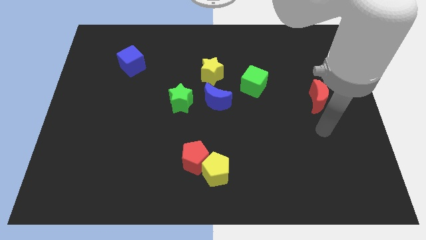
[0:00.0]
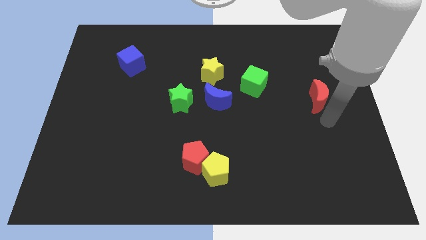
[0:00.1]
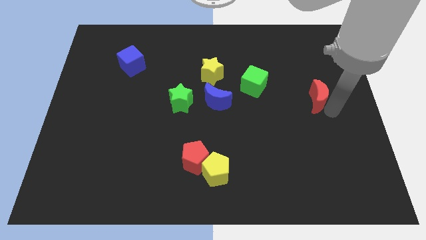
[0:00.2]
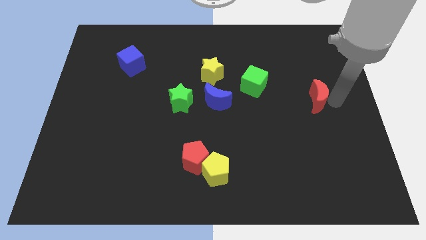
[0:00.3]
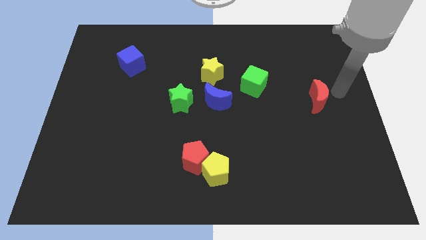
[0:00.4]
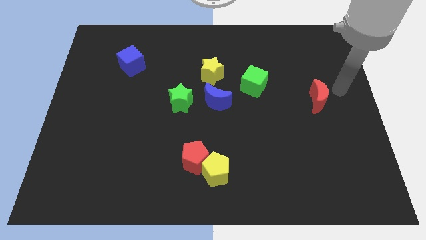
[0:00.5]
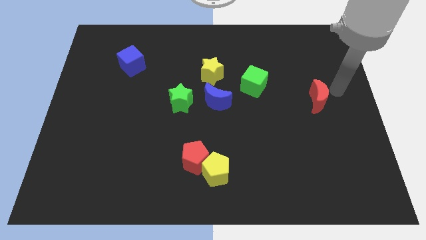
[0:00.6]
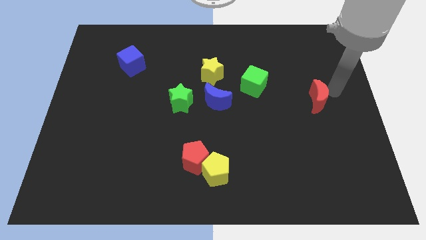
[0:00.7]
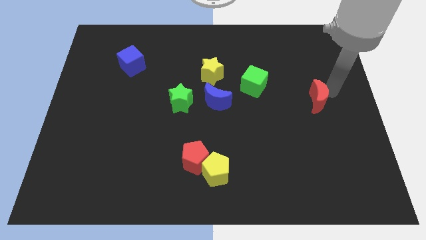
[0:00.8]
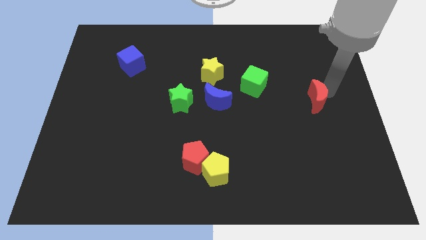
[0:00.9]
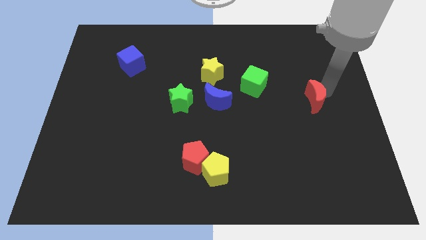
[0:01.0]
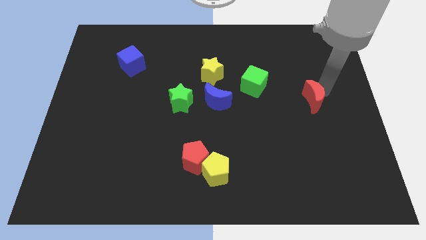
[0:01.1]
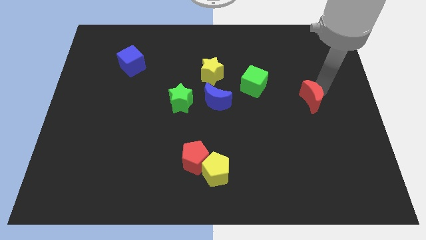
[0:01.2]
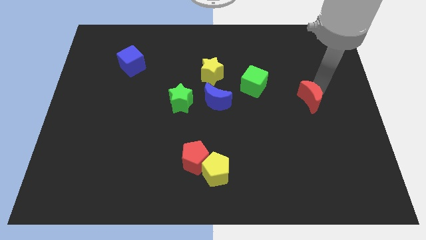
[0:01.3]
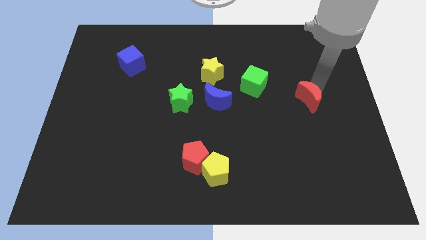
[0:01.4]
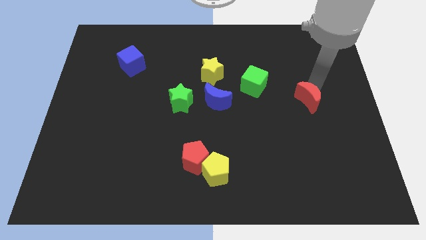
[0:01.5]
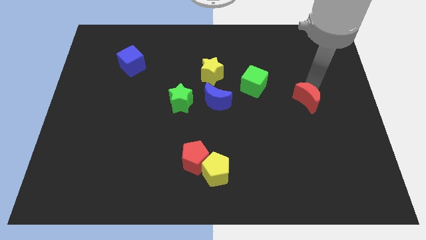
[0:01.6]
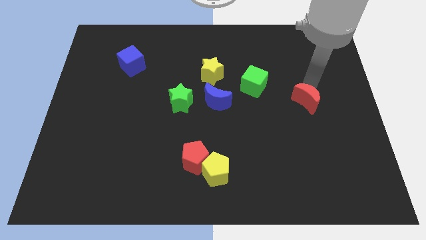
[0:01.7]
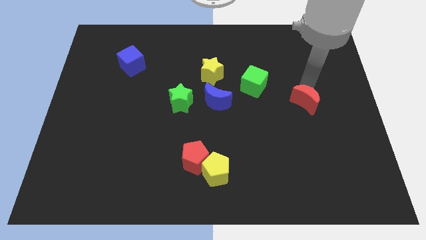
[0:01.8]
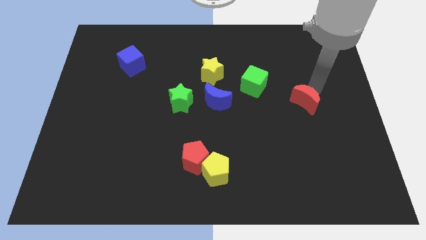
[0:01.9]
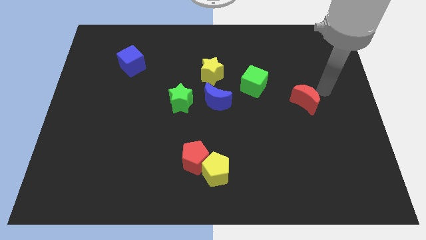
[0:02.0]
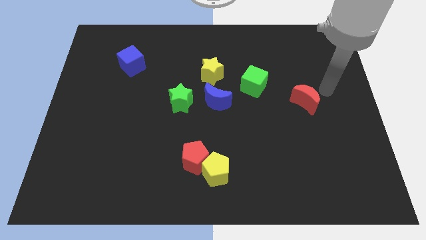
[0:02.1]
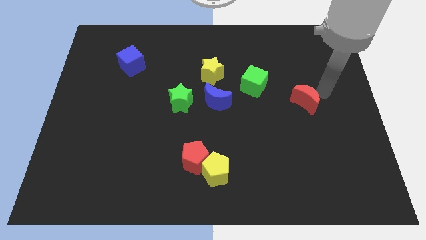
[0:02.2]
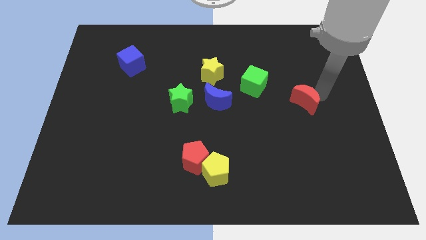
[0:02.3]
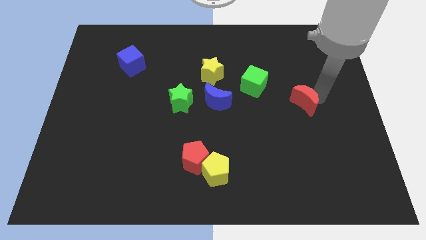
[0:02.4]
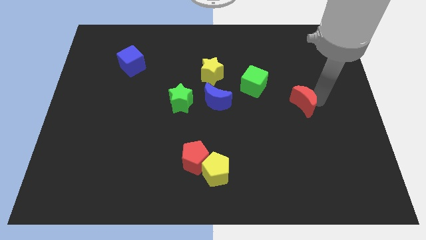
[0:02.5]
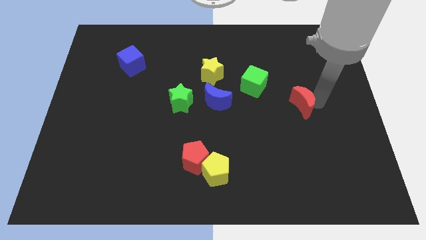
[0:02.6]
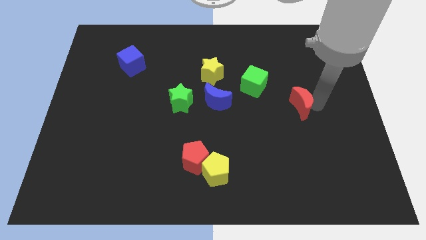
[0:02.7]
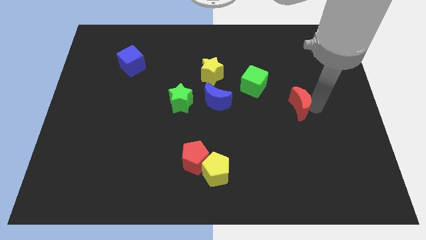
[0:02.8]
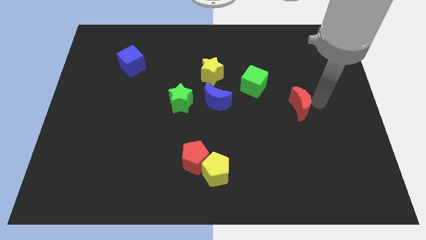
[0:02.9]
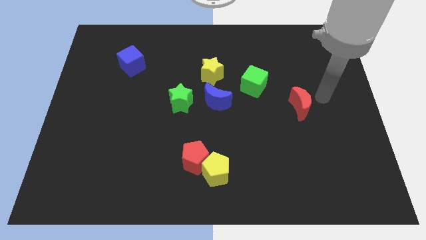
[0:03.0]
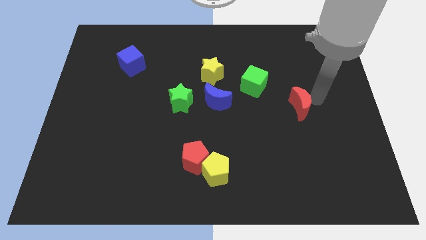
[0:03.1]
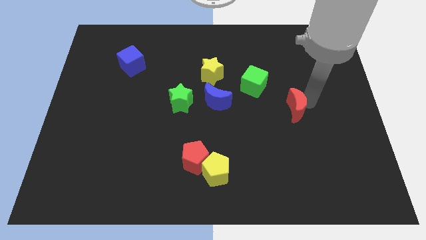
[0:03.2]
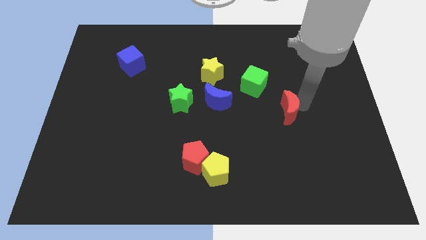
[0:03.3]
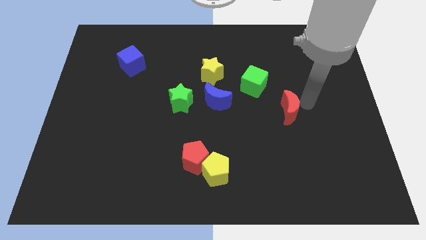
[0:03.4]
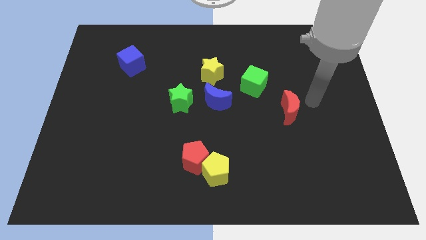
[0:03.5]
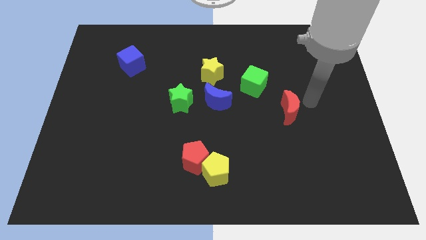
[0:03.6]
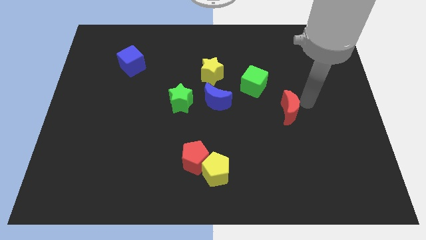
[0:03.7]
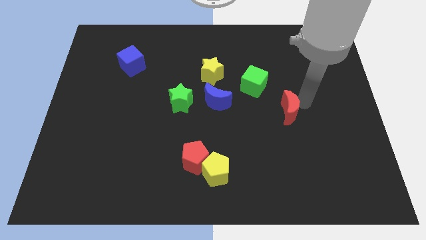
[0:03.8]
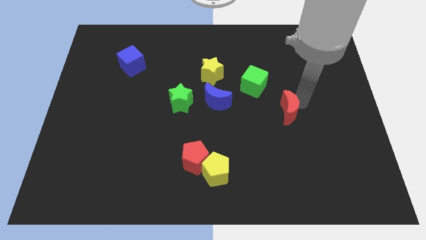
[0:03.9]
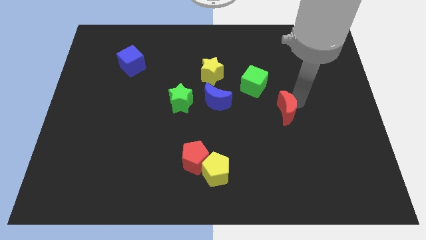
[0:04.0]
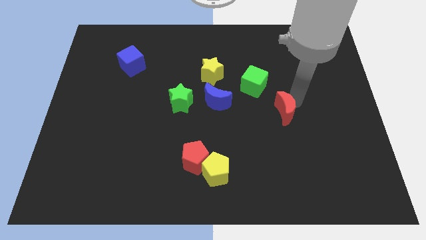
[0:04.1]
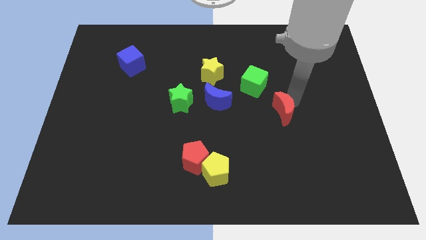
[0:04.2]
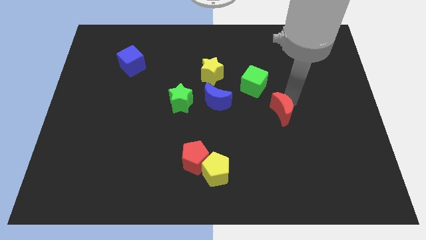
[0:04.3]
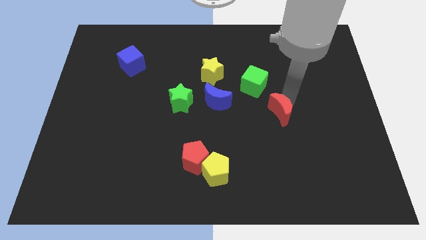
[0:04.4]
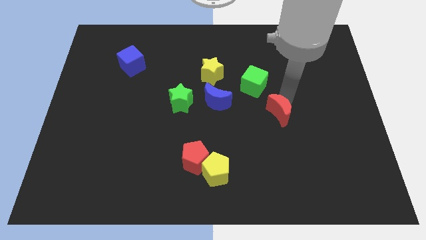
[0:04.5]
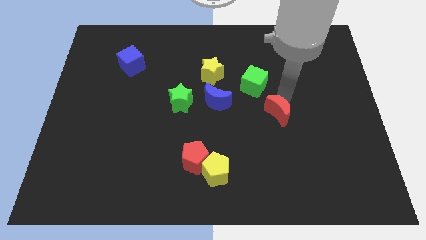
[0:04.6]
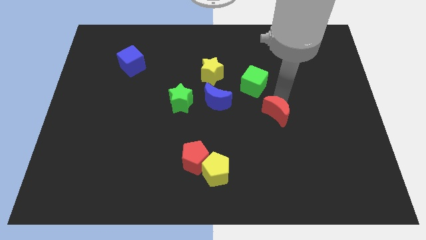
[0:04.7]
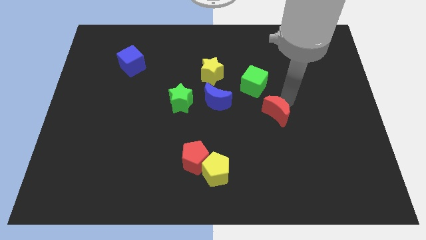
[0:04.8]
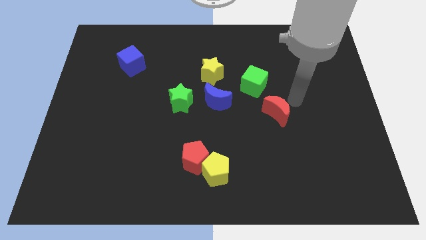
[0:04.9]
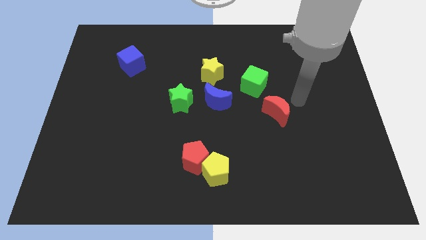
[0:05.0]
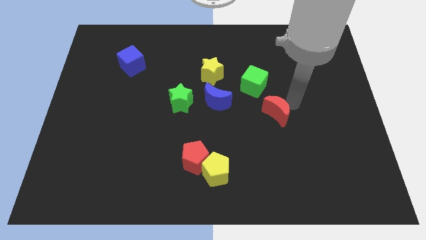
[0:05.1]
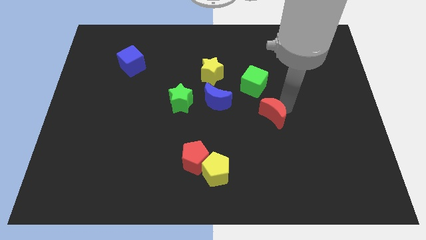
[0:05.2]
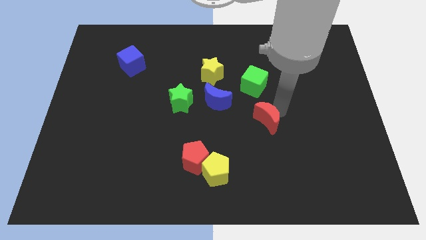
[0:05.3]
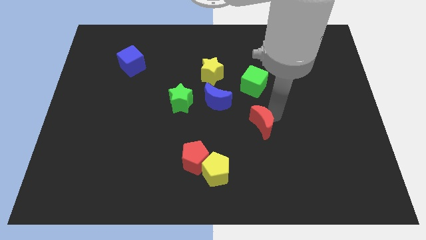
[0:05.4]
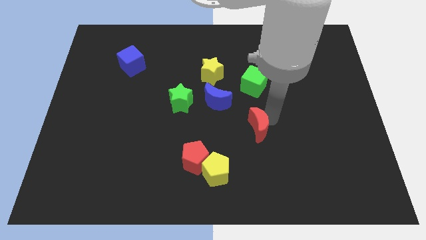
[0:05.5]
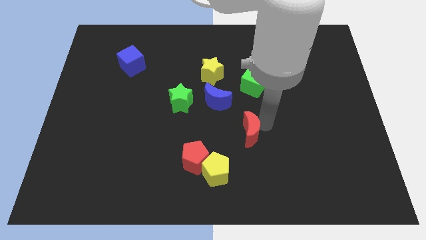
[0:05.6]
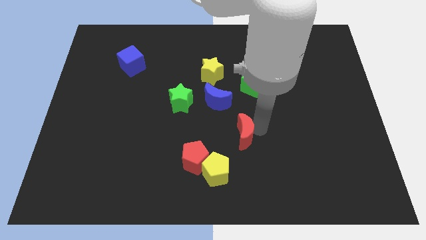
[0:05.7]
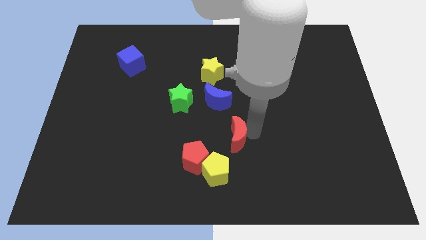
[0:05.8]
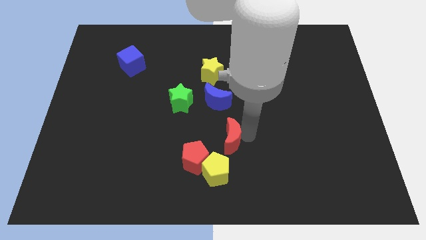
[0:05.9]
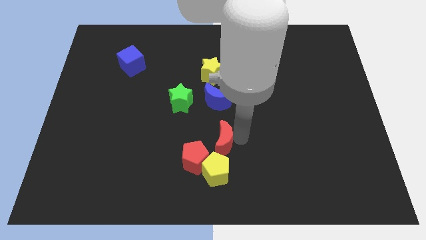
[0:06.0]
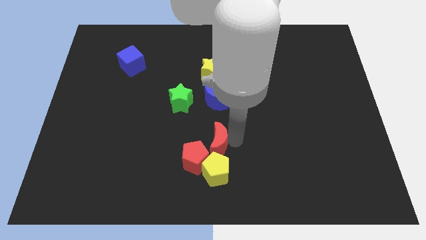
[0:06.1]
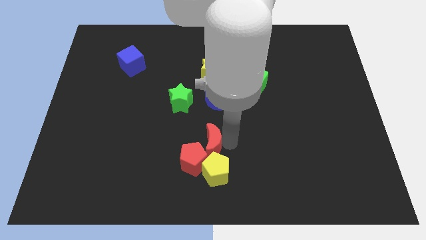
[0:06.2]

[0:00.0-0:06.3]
put the red moon diagonally up and to the left of the yellow pentagon

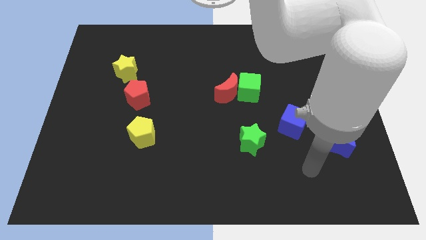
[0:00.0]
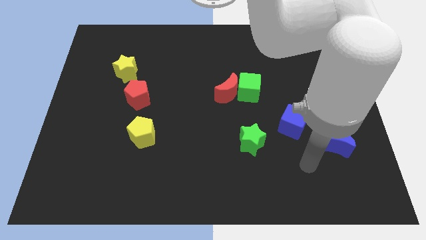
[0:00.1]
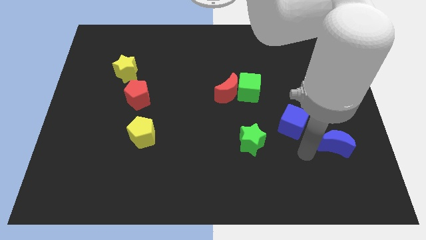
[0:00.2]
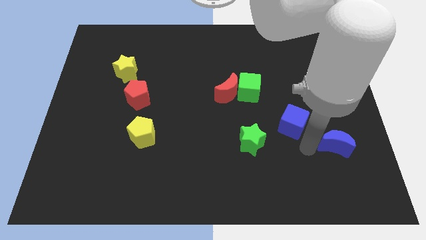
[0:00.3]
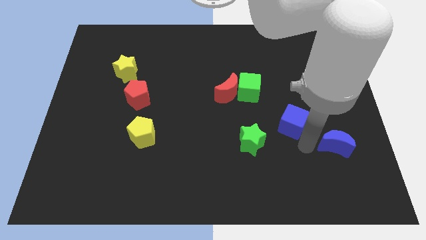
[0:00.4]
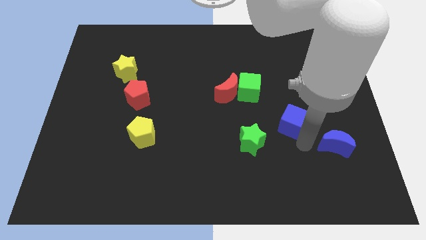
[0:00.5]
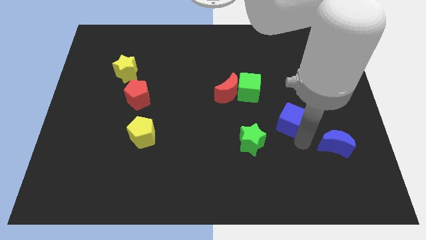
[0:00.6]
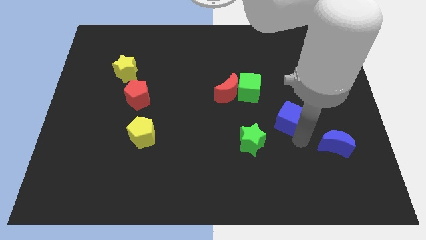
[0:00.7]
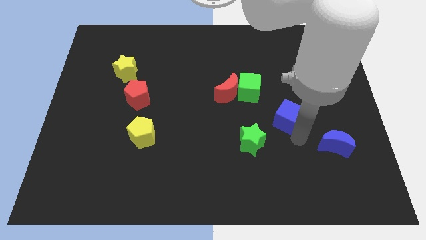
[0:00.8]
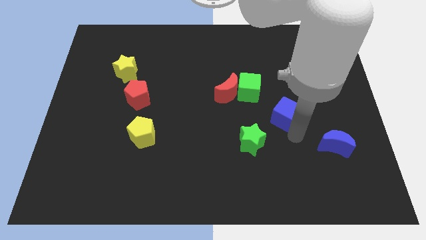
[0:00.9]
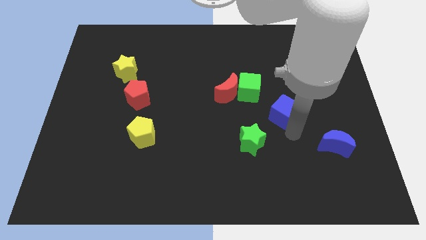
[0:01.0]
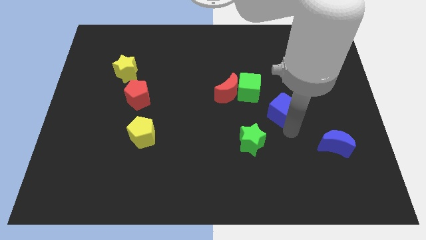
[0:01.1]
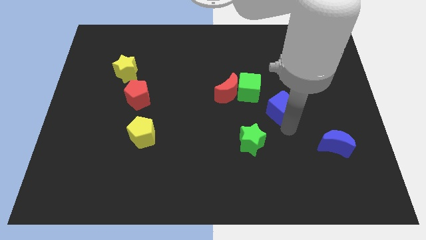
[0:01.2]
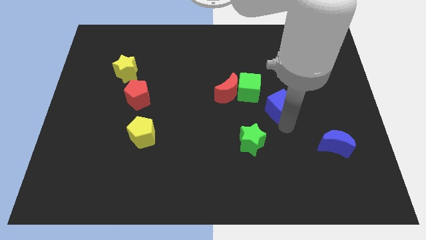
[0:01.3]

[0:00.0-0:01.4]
put the blue cube to the right of the red moon

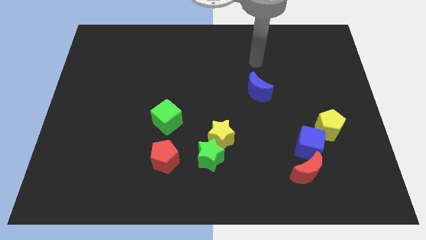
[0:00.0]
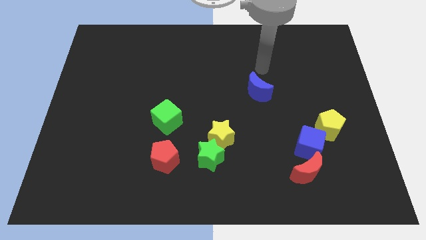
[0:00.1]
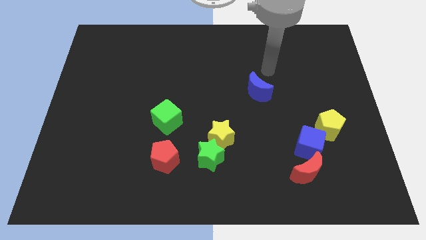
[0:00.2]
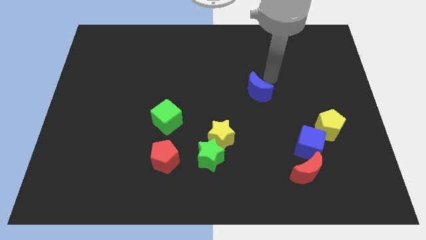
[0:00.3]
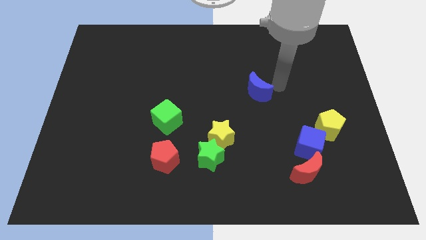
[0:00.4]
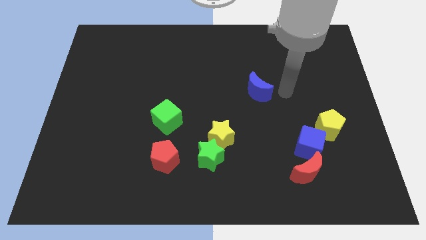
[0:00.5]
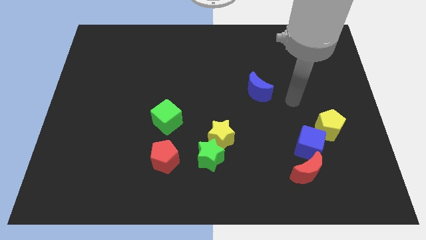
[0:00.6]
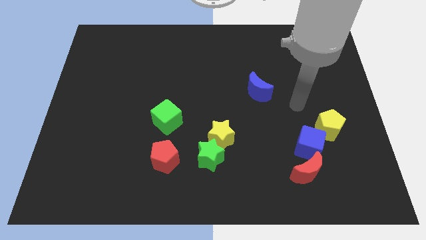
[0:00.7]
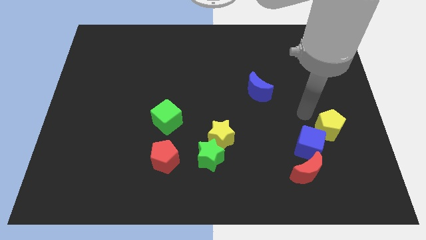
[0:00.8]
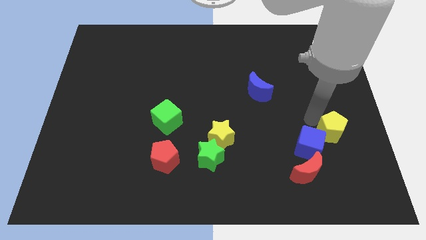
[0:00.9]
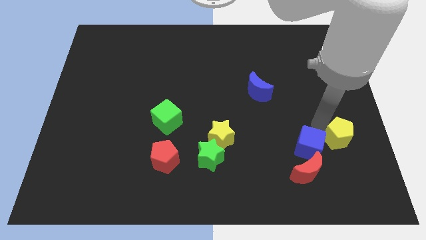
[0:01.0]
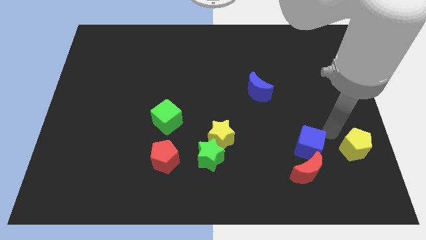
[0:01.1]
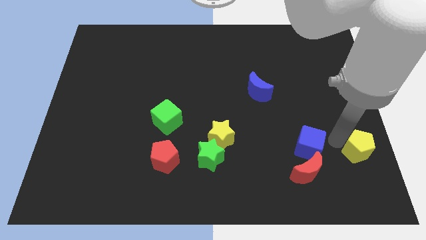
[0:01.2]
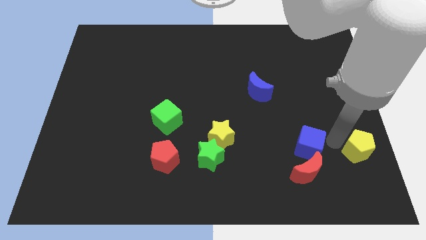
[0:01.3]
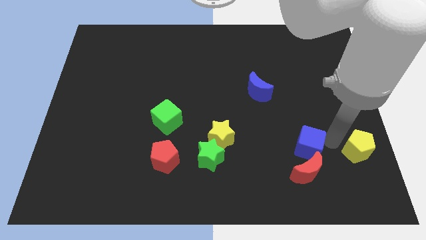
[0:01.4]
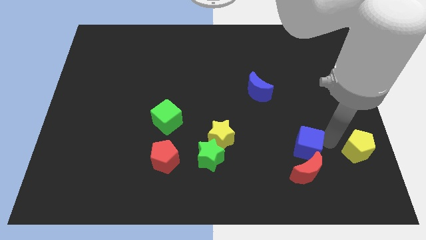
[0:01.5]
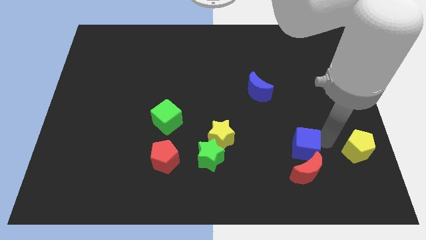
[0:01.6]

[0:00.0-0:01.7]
move the blue cube diagonally up and to the left of the red moon
